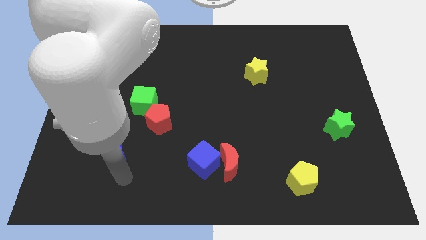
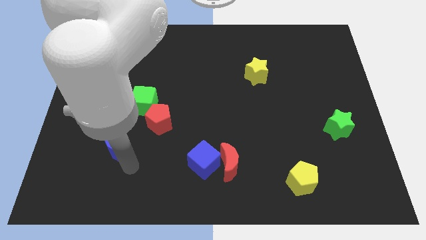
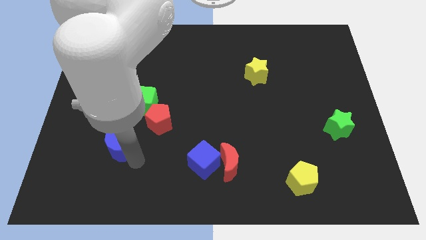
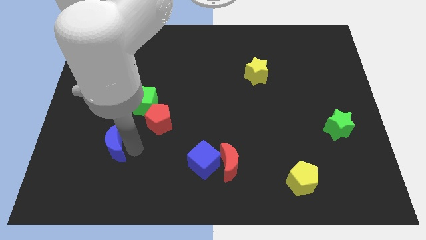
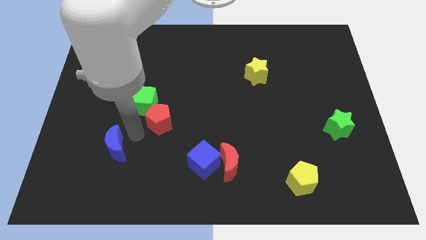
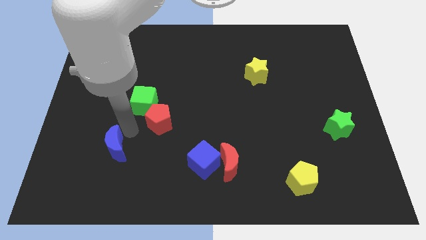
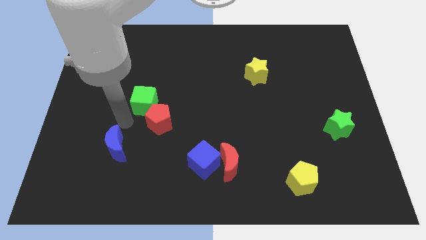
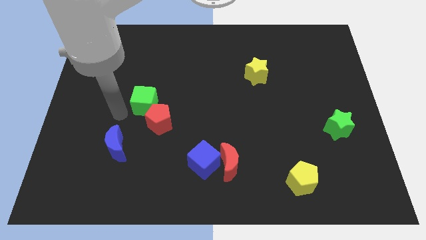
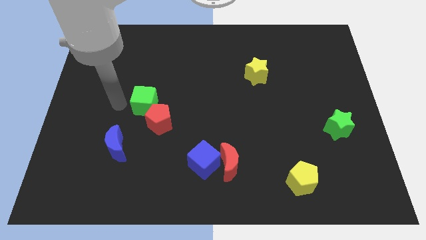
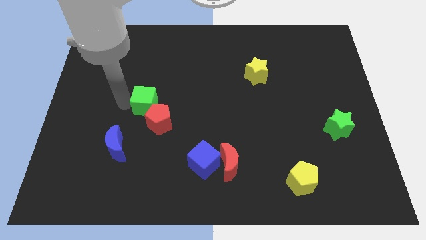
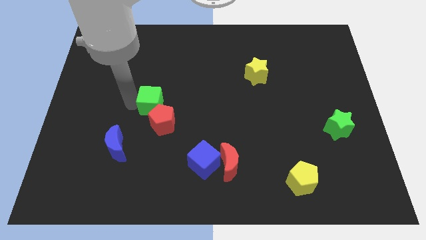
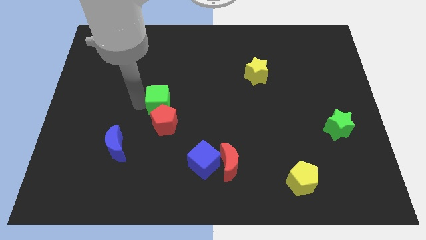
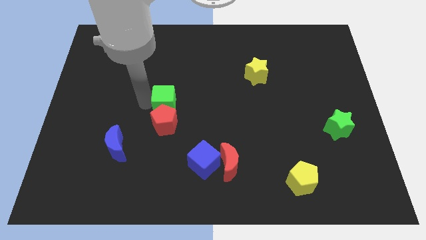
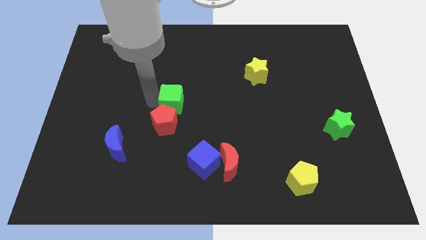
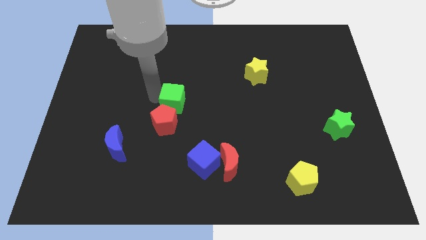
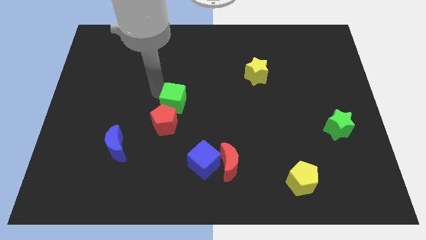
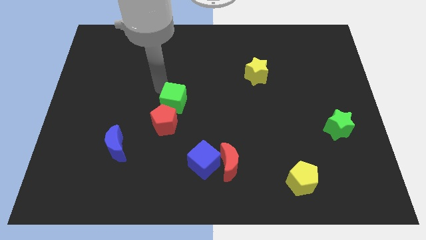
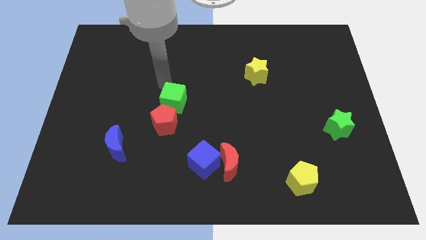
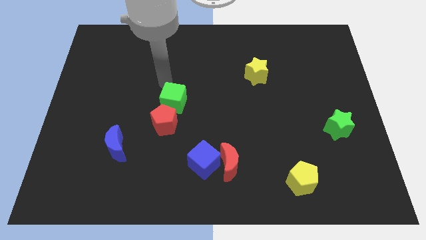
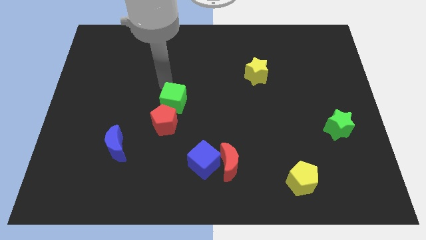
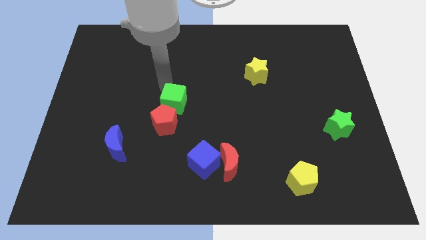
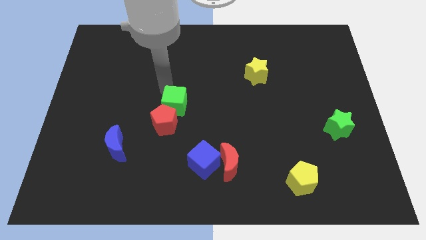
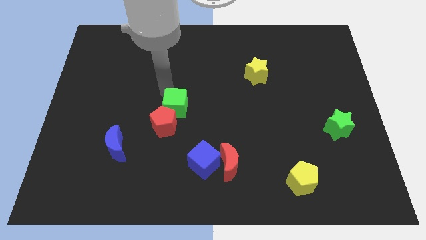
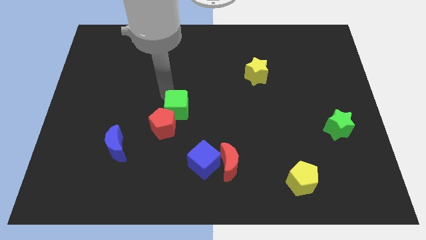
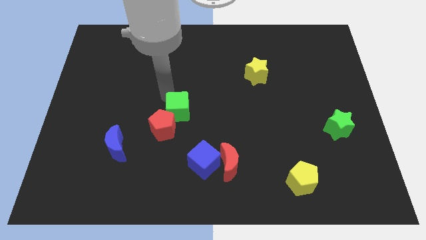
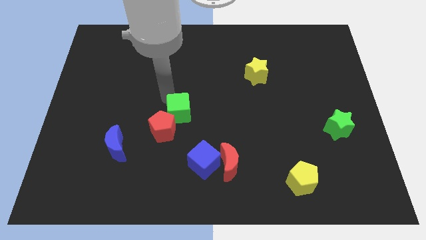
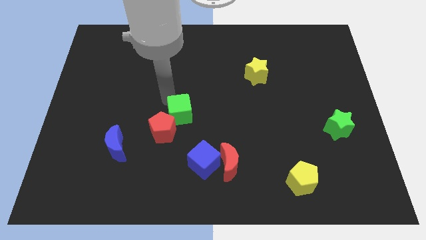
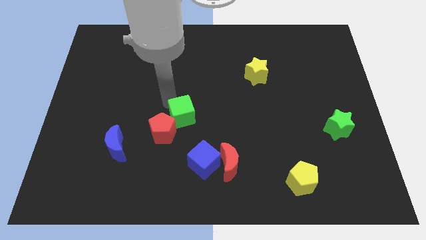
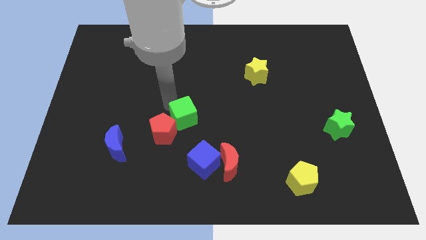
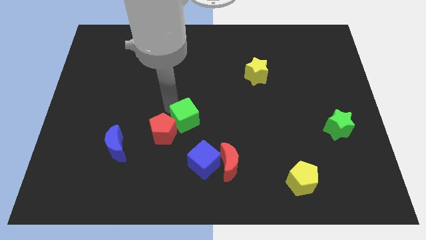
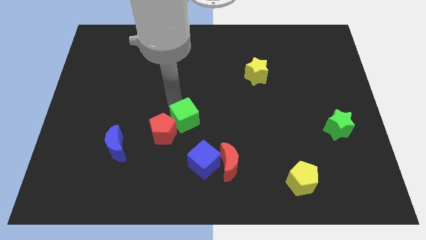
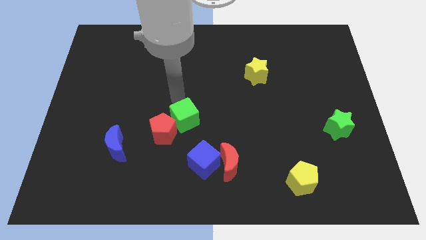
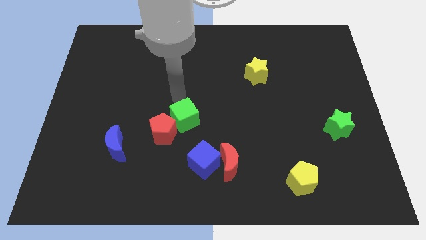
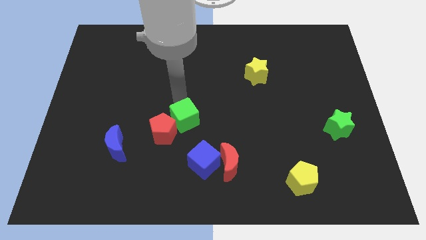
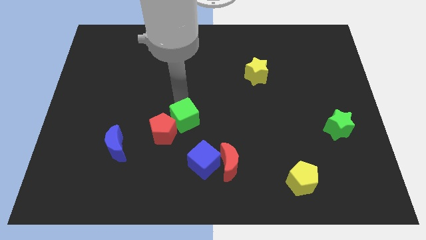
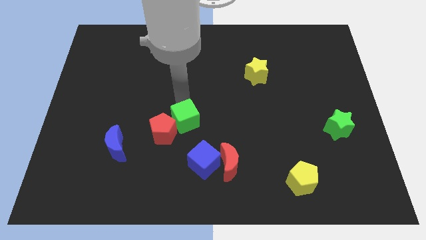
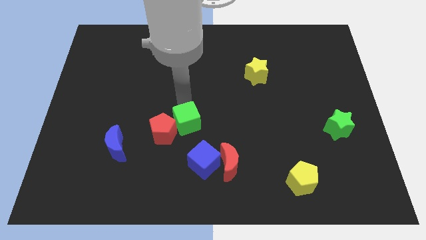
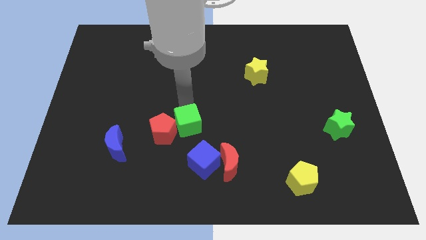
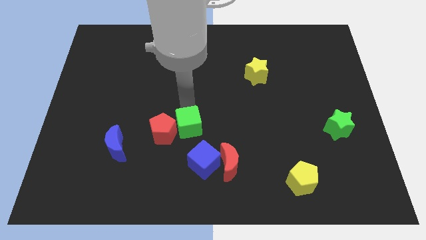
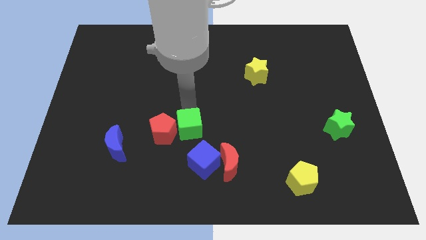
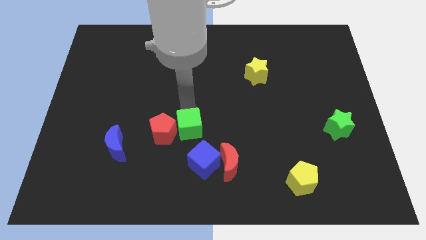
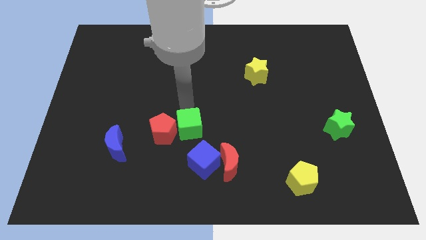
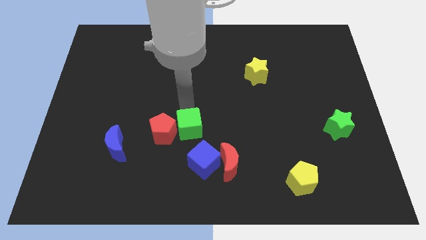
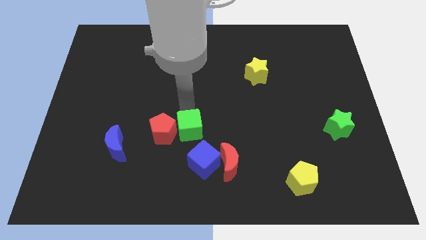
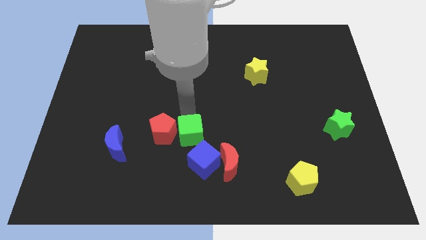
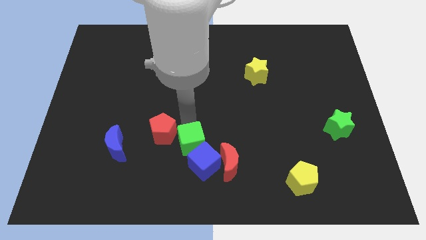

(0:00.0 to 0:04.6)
push the green cube close to the blue cube

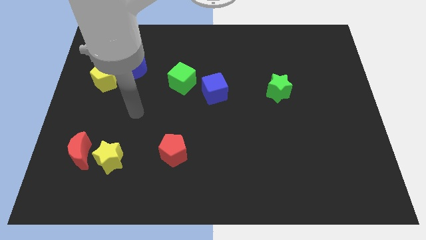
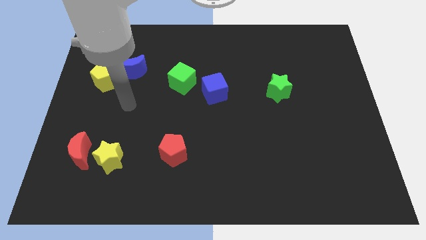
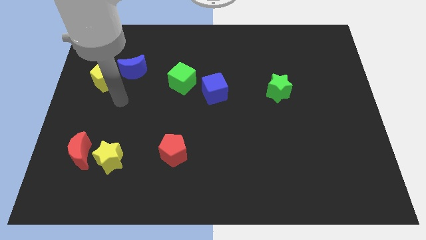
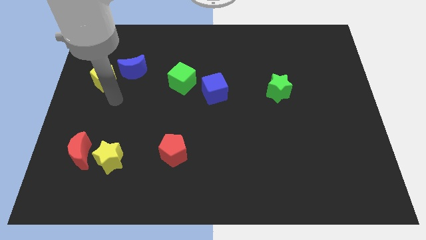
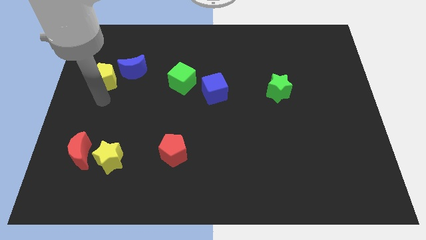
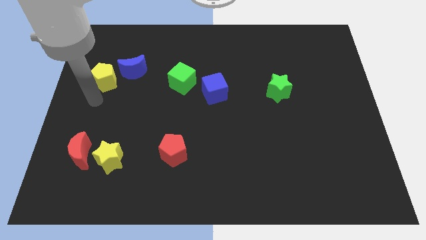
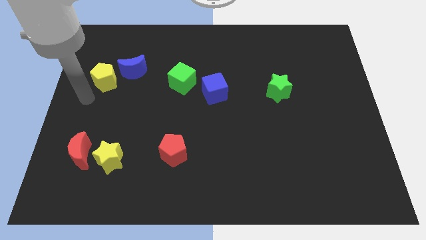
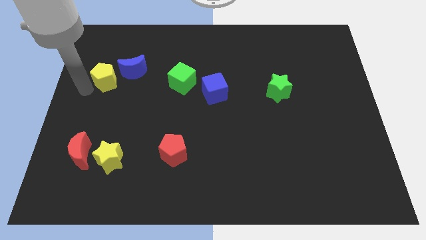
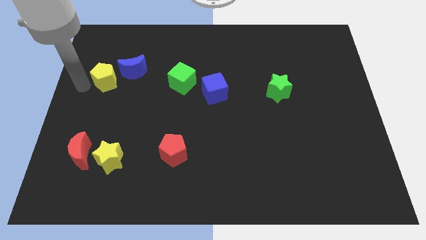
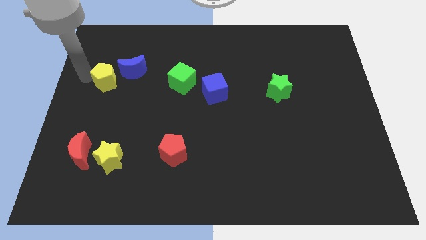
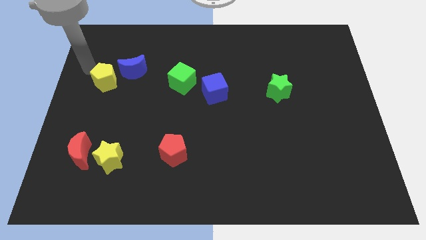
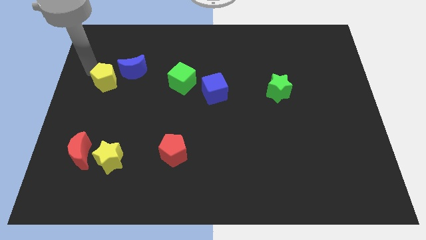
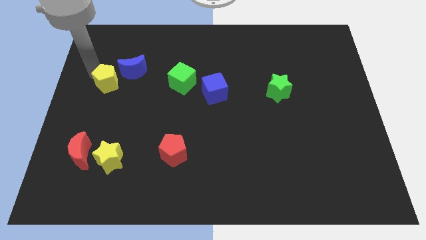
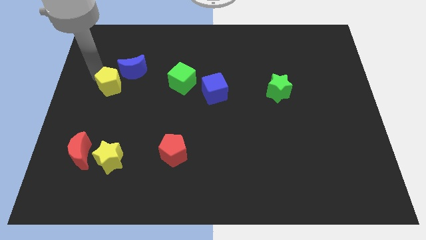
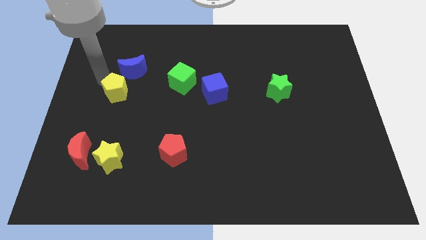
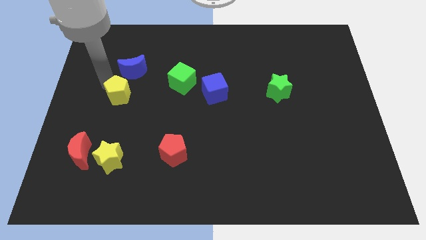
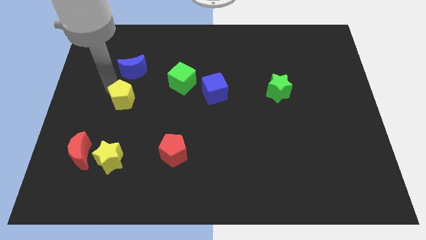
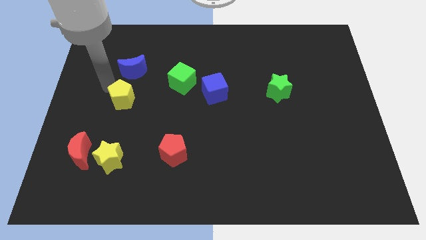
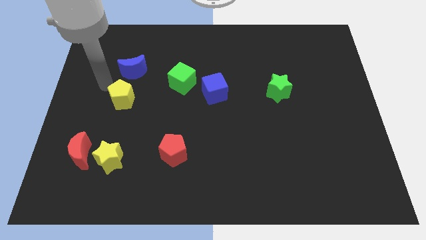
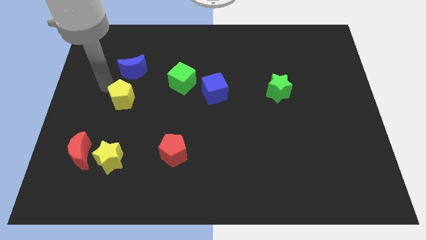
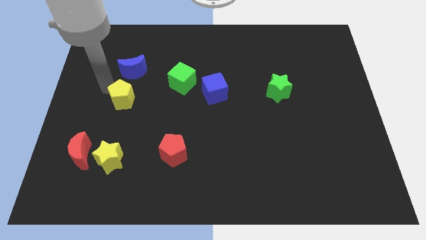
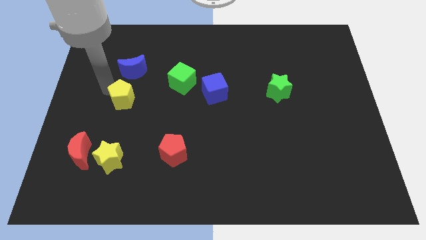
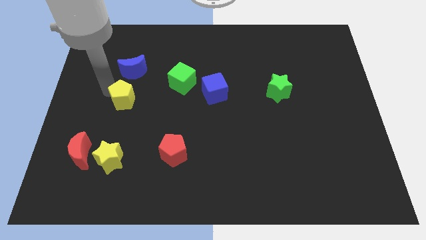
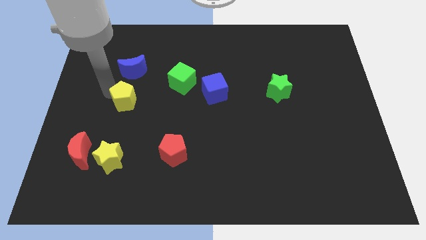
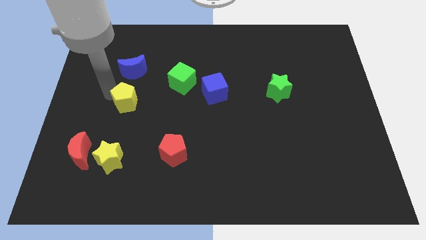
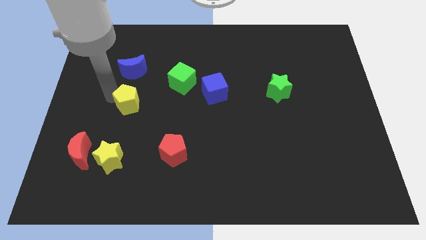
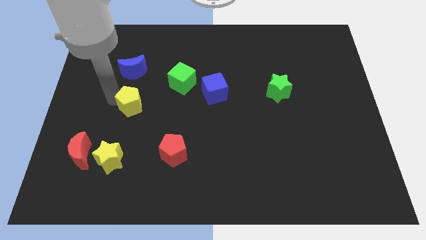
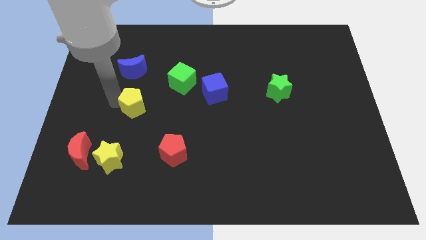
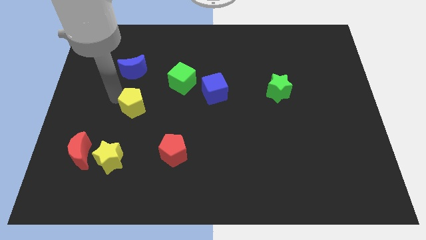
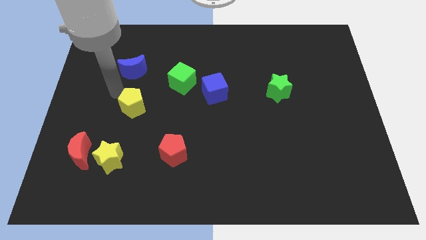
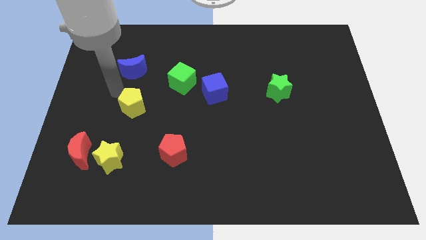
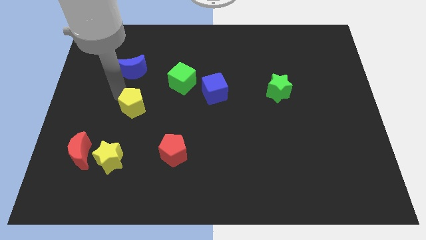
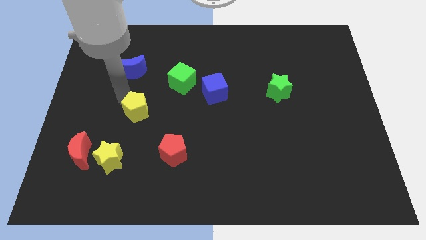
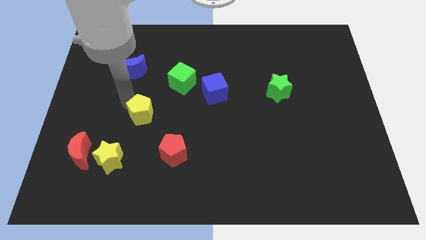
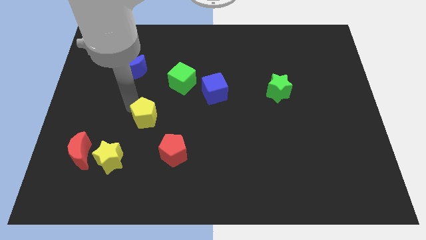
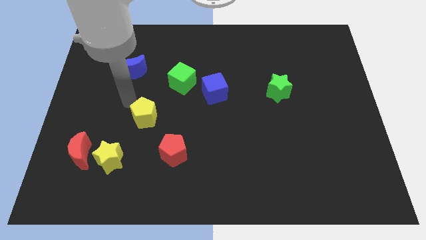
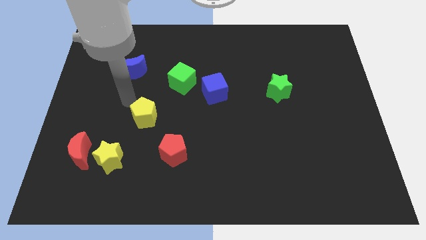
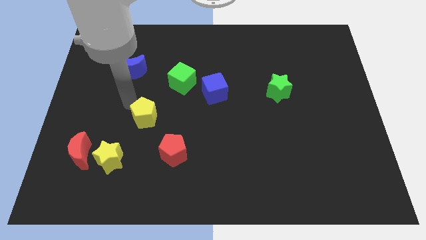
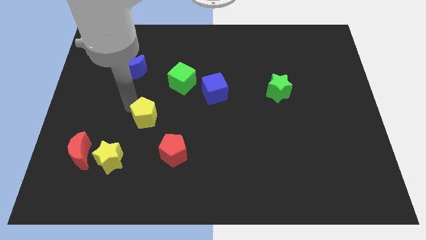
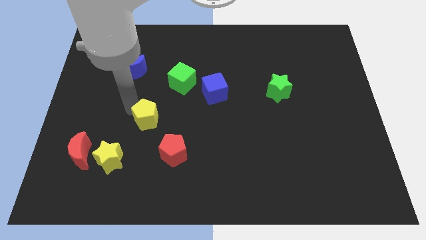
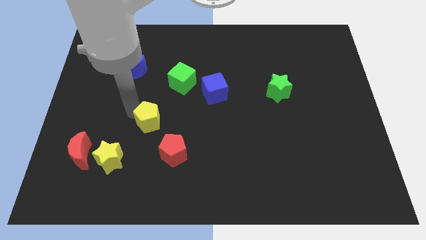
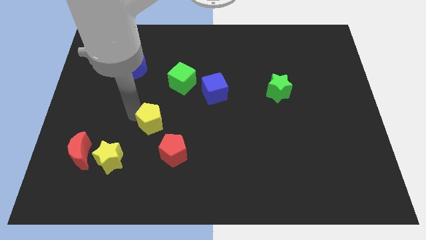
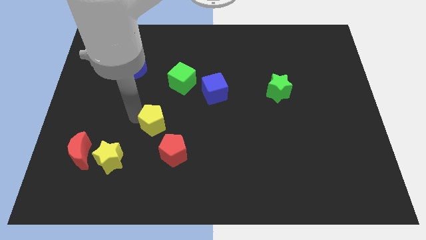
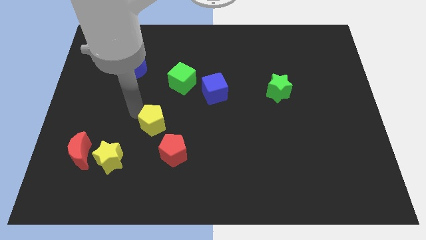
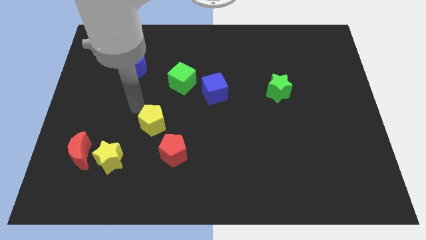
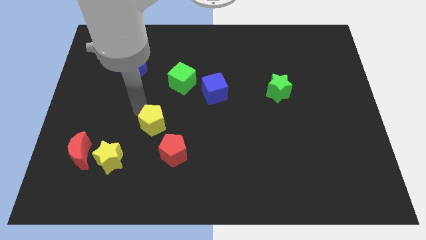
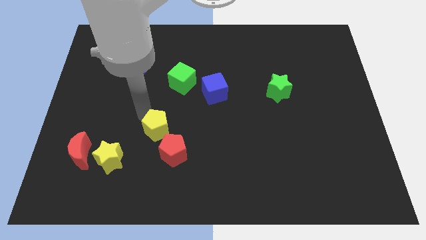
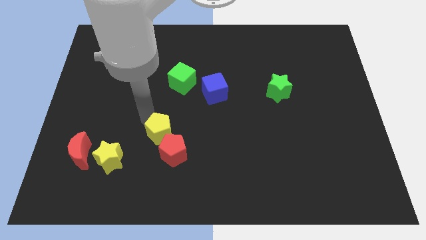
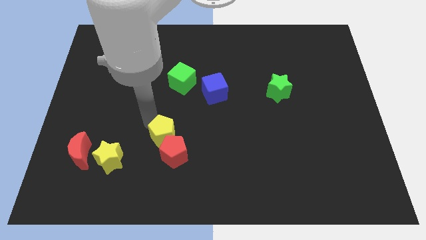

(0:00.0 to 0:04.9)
push the yellow pentagon to the red pentagon
